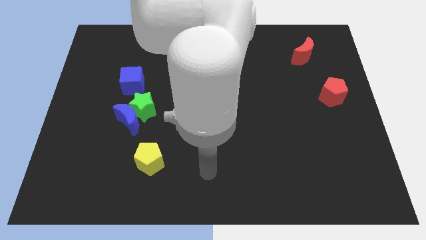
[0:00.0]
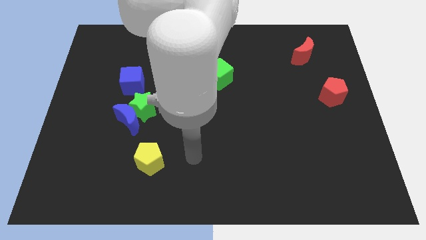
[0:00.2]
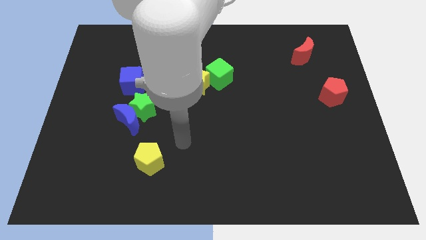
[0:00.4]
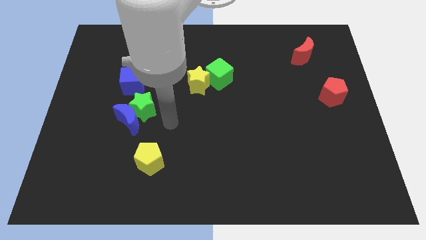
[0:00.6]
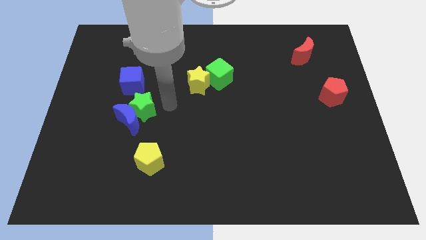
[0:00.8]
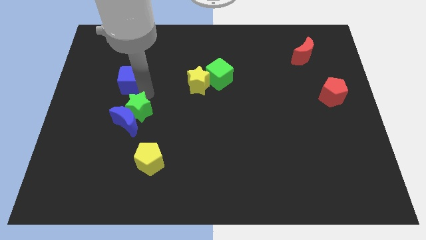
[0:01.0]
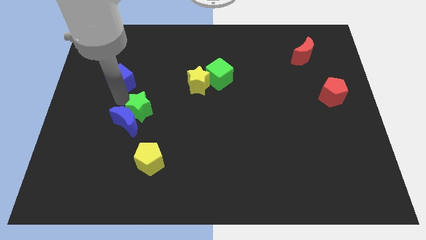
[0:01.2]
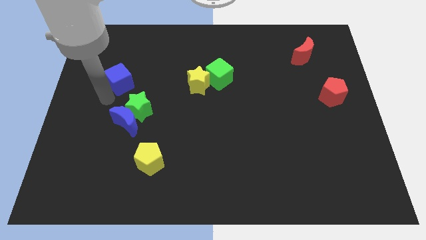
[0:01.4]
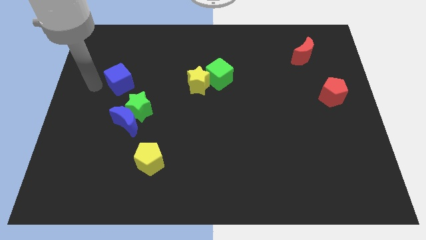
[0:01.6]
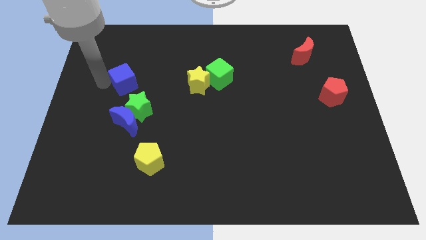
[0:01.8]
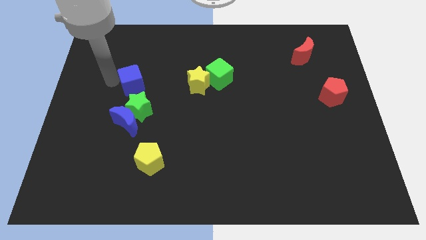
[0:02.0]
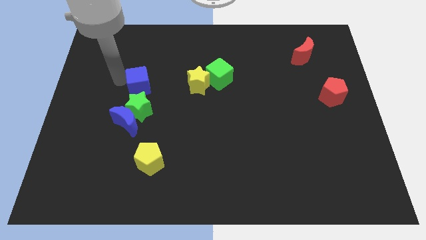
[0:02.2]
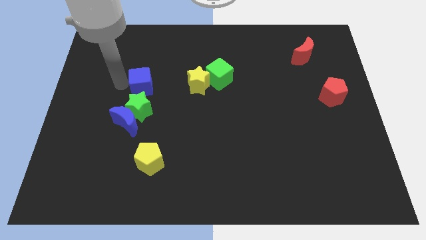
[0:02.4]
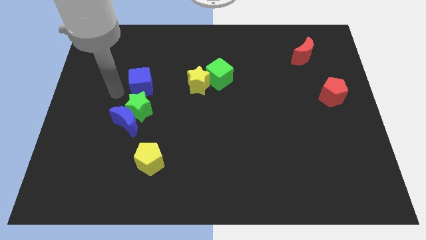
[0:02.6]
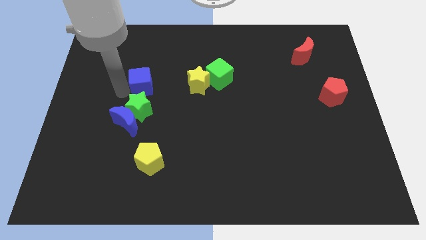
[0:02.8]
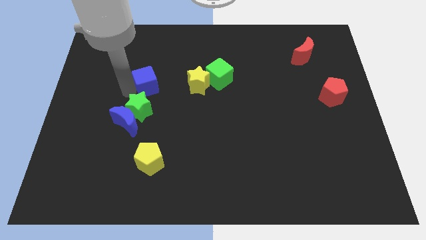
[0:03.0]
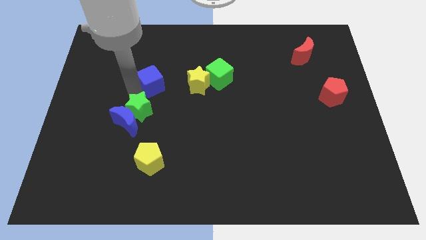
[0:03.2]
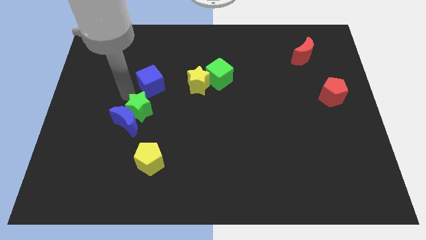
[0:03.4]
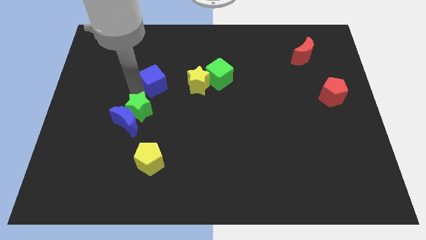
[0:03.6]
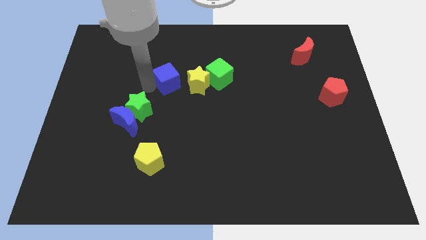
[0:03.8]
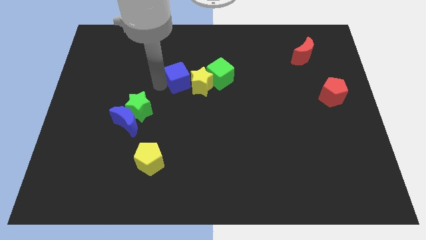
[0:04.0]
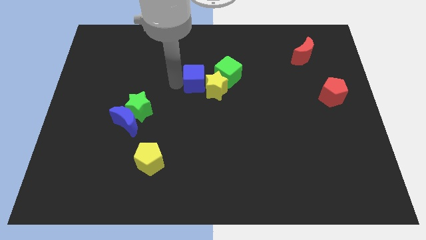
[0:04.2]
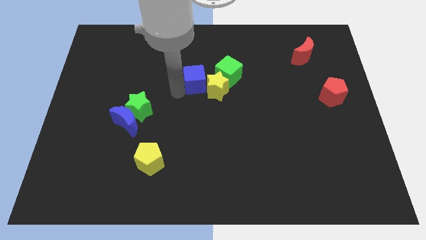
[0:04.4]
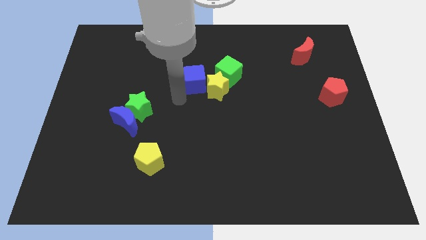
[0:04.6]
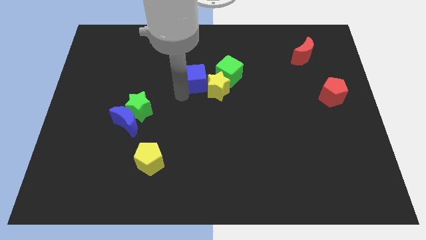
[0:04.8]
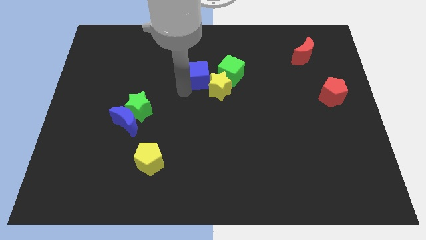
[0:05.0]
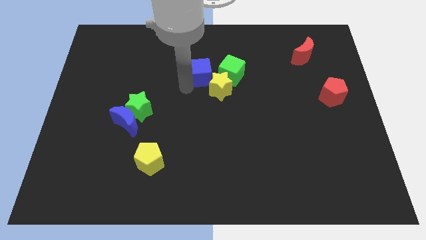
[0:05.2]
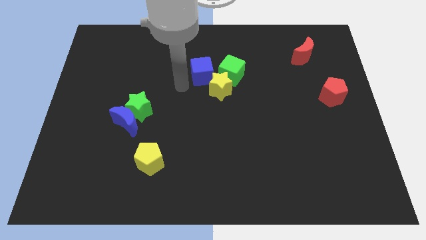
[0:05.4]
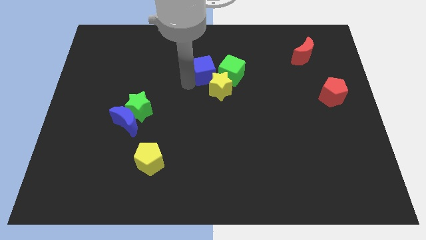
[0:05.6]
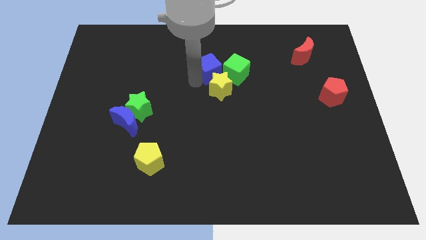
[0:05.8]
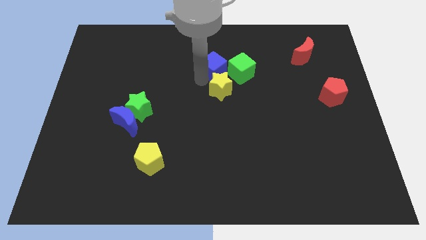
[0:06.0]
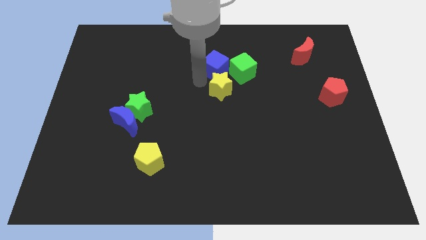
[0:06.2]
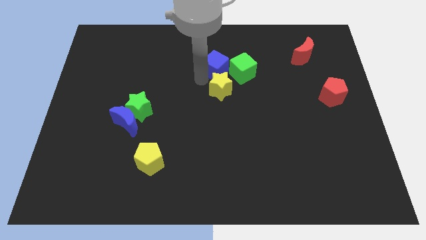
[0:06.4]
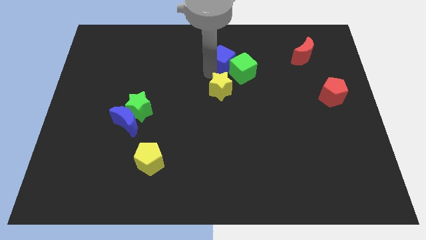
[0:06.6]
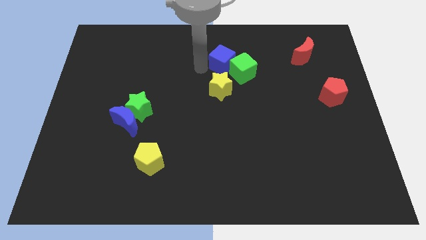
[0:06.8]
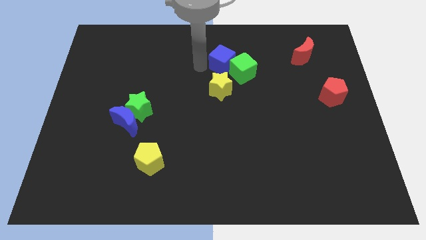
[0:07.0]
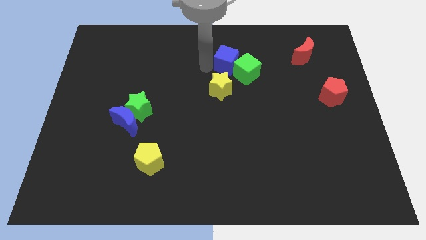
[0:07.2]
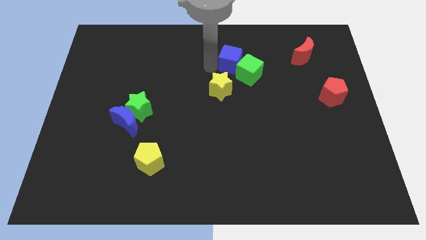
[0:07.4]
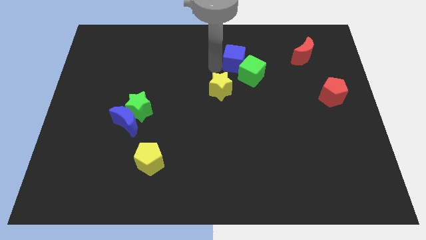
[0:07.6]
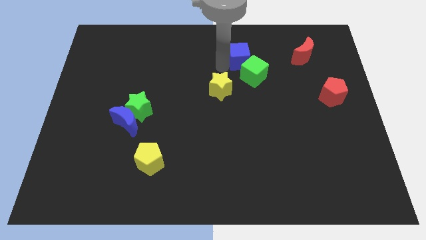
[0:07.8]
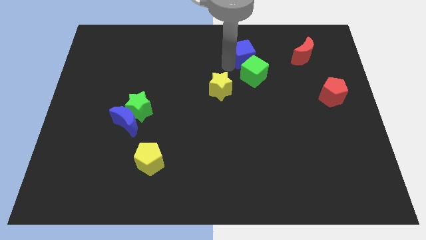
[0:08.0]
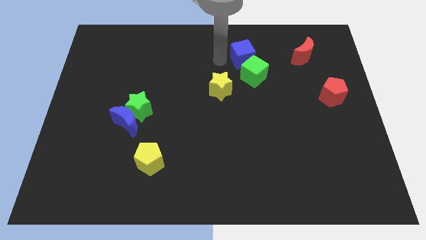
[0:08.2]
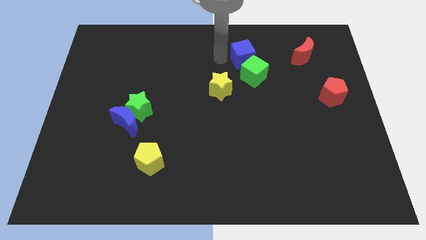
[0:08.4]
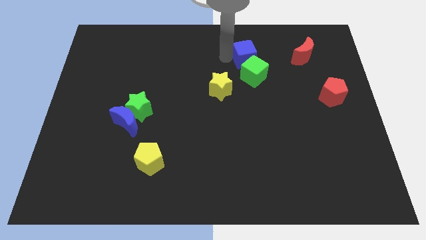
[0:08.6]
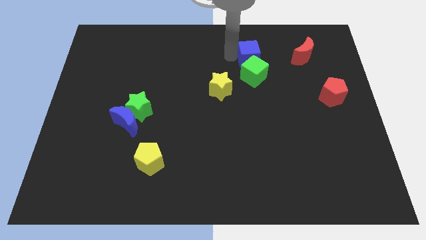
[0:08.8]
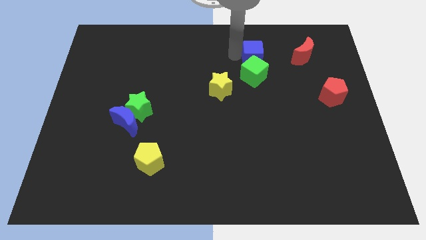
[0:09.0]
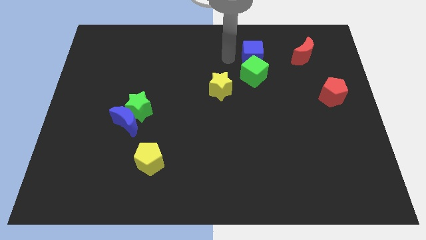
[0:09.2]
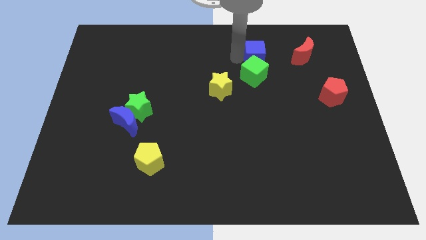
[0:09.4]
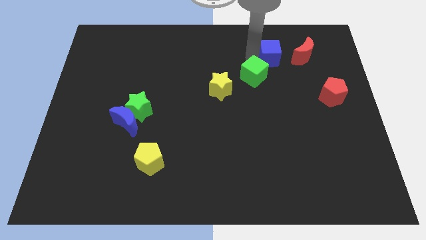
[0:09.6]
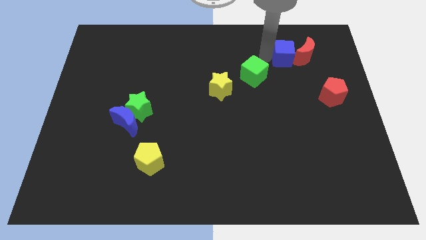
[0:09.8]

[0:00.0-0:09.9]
slide the blue cube close to the red moon

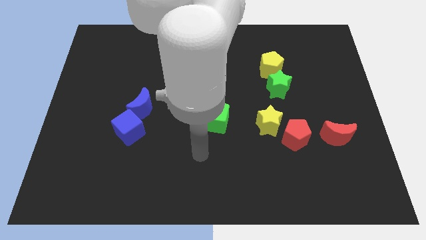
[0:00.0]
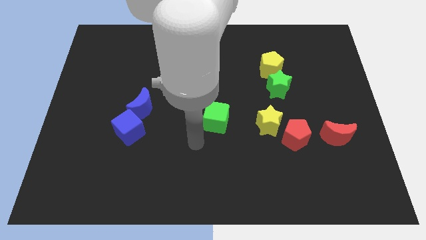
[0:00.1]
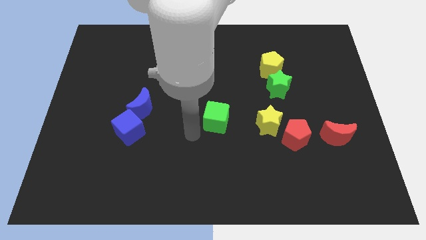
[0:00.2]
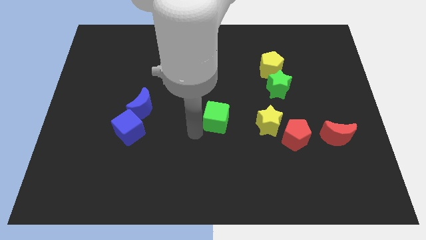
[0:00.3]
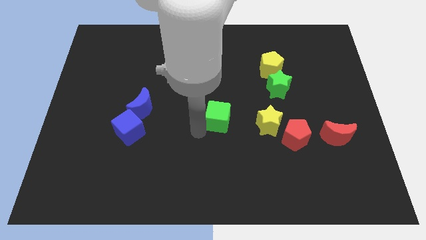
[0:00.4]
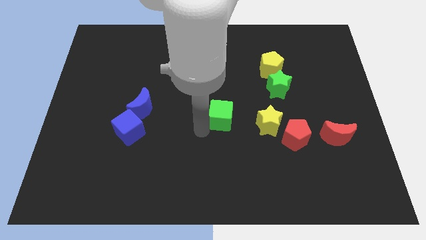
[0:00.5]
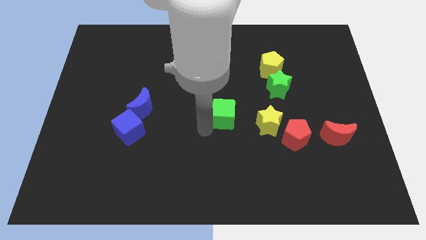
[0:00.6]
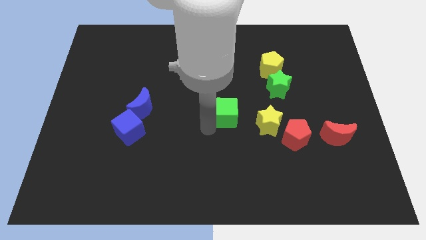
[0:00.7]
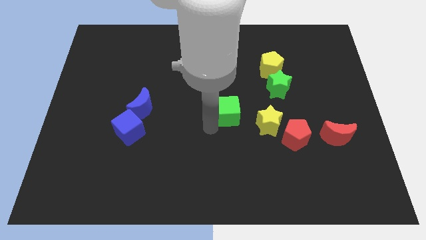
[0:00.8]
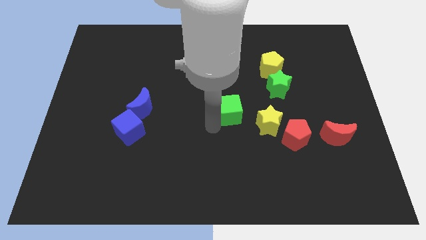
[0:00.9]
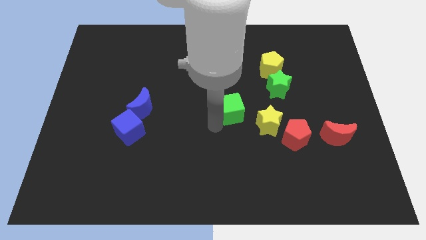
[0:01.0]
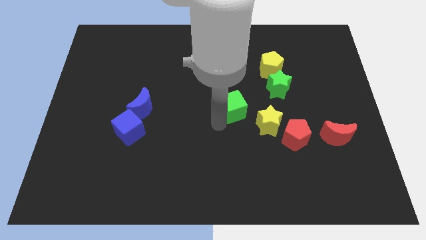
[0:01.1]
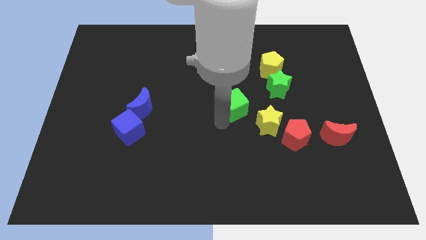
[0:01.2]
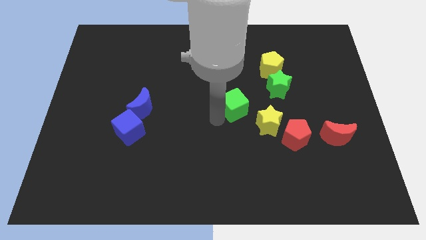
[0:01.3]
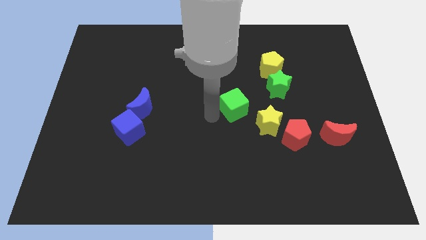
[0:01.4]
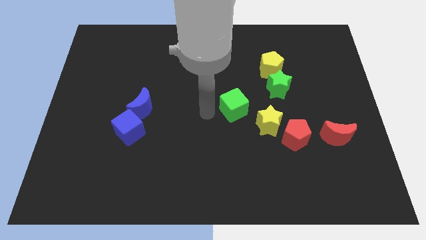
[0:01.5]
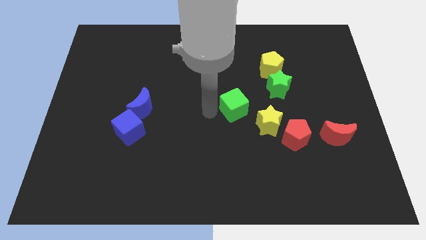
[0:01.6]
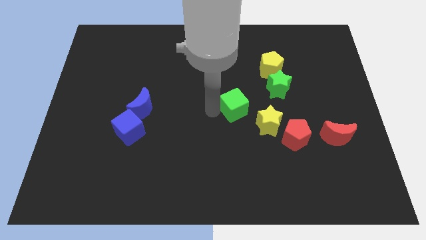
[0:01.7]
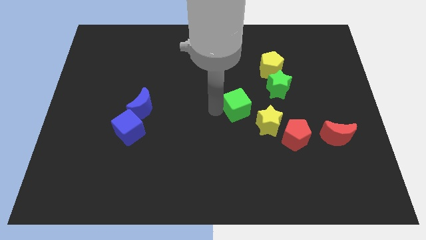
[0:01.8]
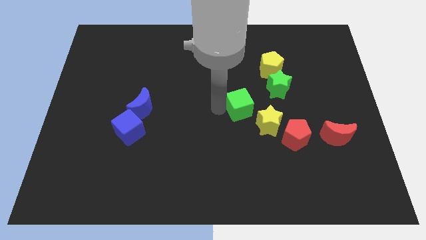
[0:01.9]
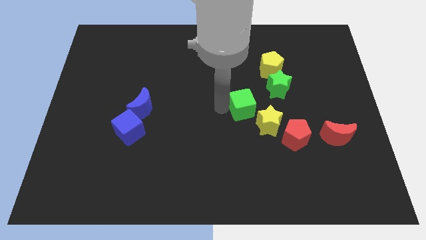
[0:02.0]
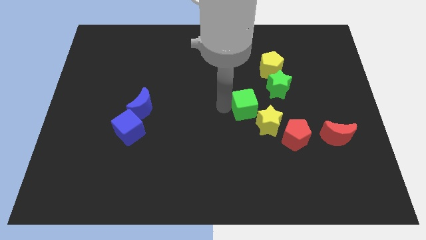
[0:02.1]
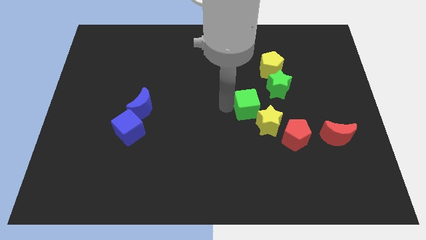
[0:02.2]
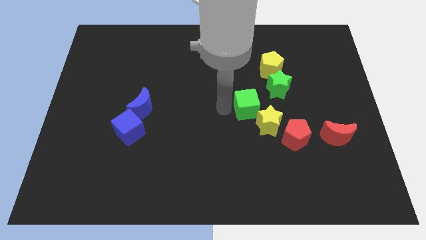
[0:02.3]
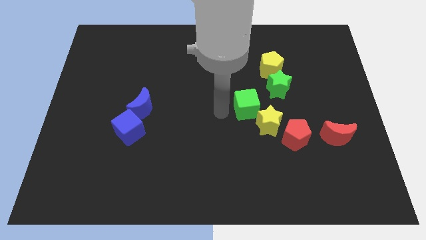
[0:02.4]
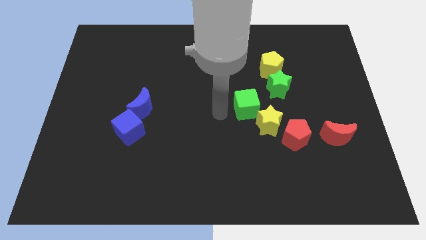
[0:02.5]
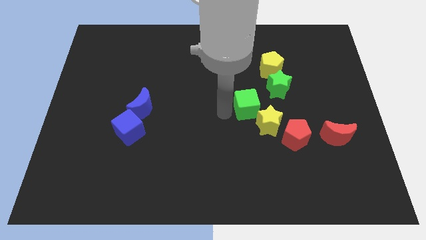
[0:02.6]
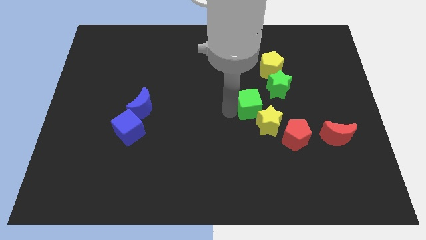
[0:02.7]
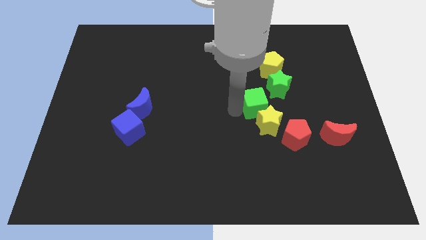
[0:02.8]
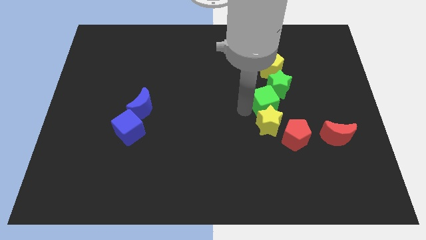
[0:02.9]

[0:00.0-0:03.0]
put the green cube close to the green star
